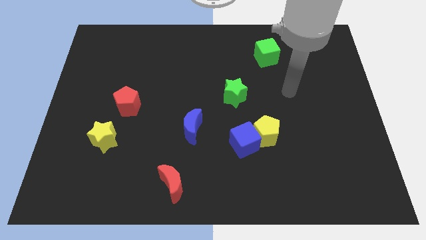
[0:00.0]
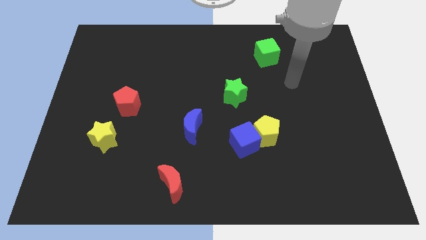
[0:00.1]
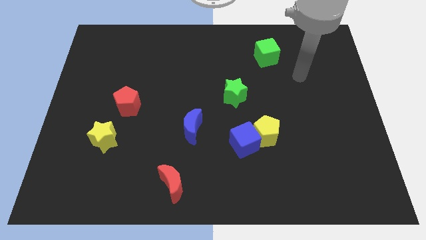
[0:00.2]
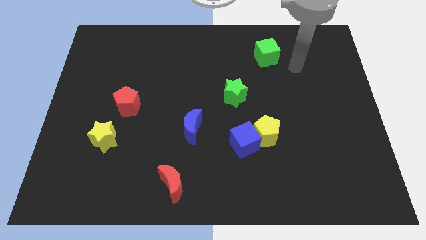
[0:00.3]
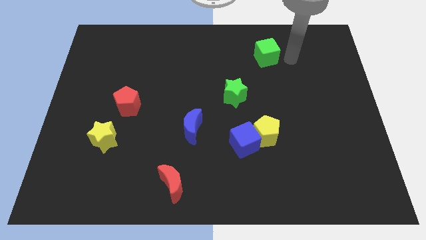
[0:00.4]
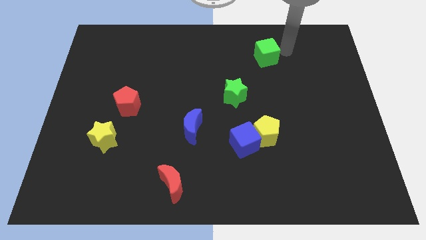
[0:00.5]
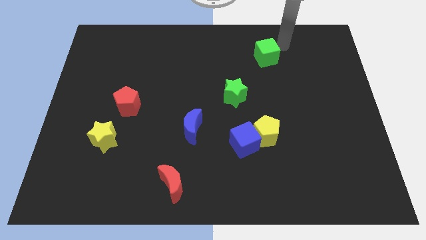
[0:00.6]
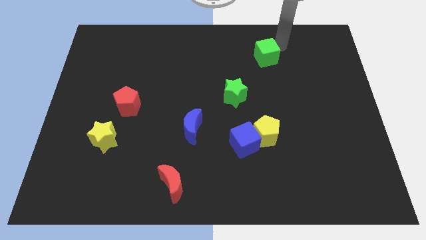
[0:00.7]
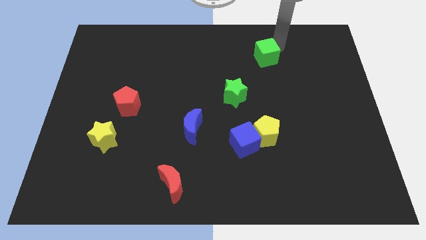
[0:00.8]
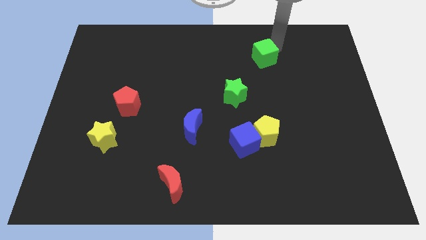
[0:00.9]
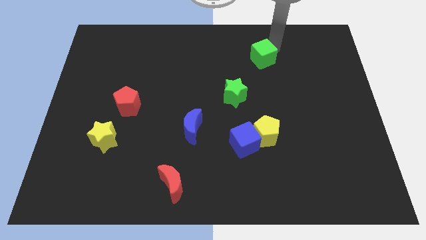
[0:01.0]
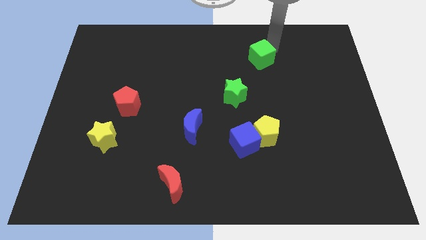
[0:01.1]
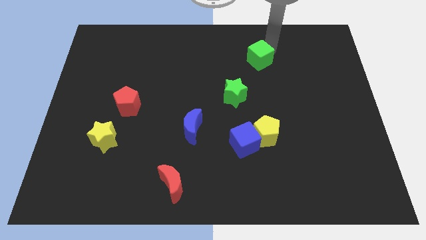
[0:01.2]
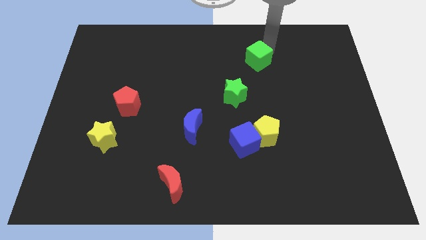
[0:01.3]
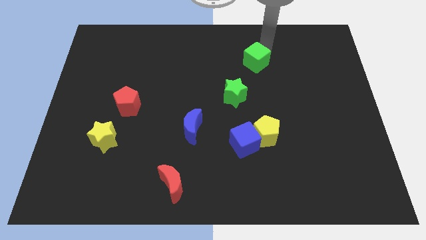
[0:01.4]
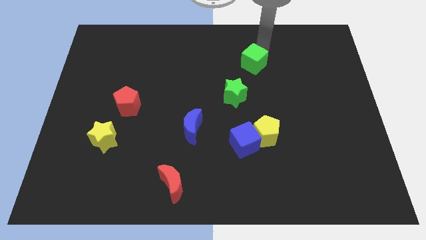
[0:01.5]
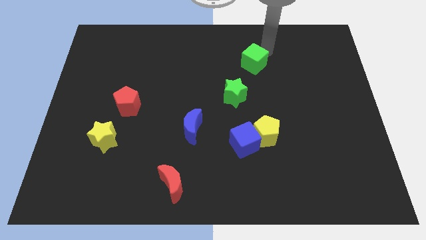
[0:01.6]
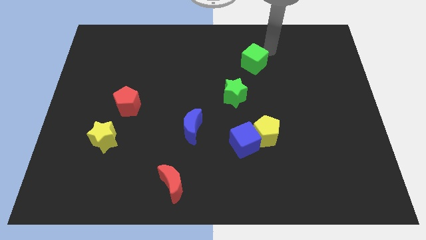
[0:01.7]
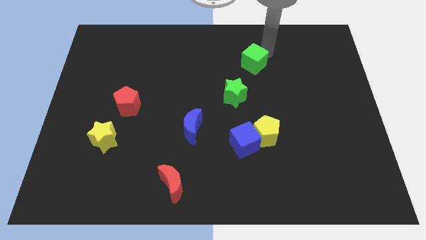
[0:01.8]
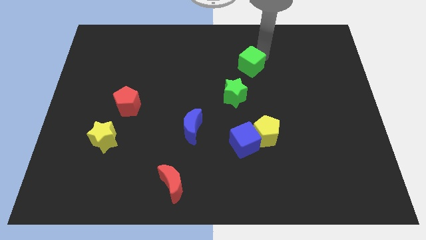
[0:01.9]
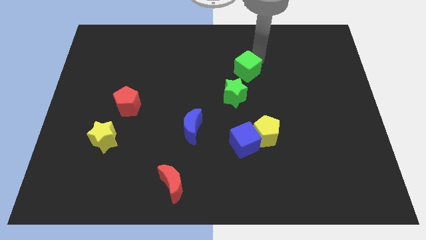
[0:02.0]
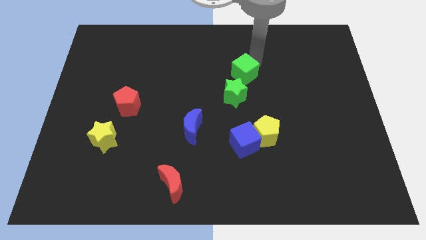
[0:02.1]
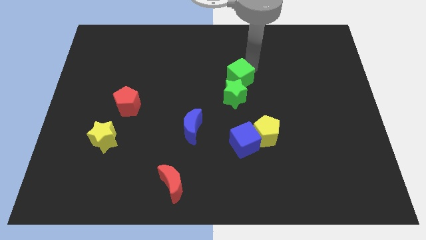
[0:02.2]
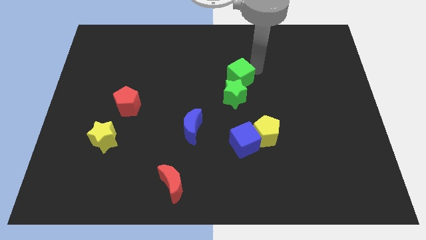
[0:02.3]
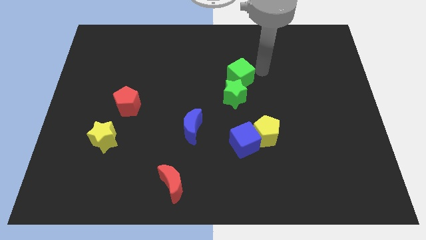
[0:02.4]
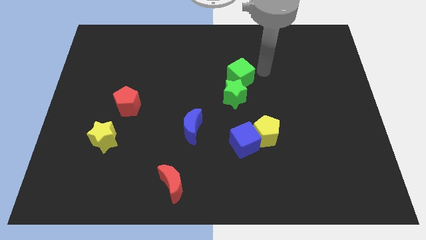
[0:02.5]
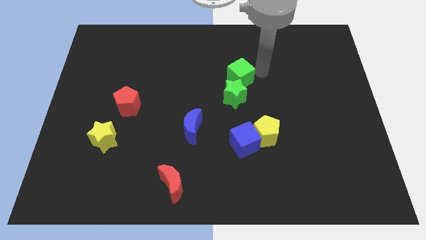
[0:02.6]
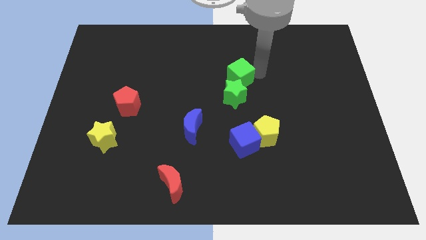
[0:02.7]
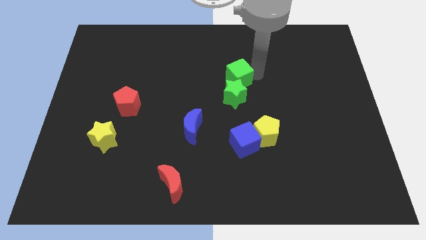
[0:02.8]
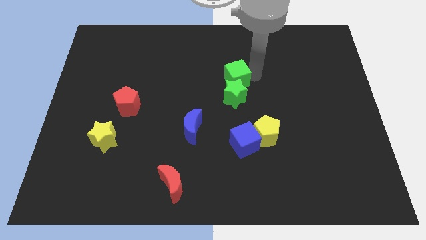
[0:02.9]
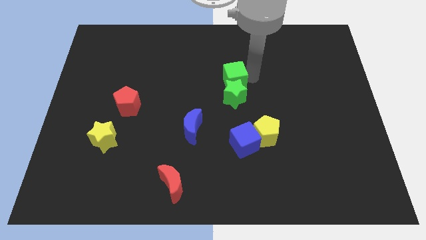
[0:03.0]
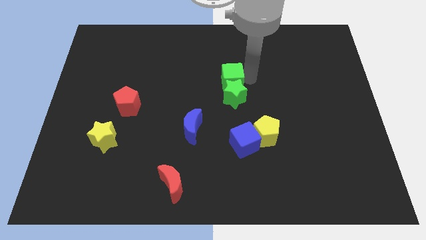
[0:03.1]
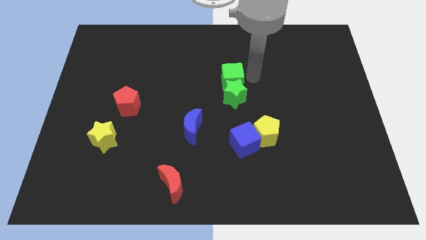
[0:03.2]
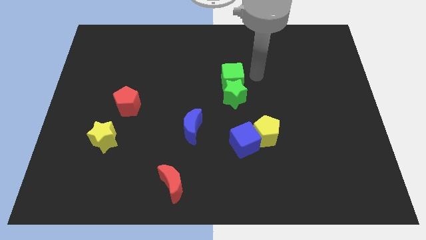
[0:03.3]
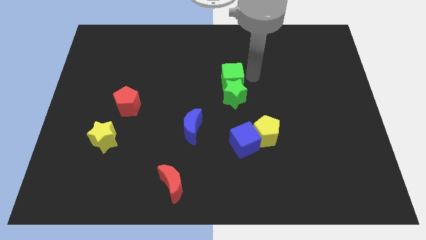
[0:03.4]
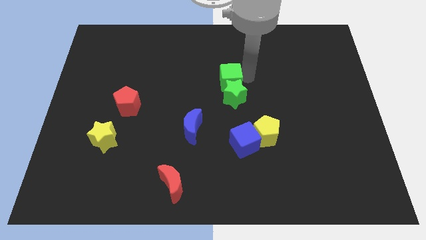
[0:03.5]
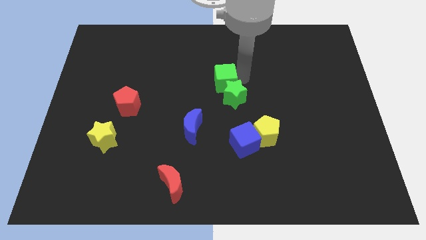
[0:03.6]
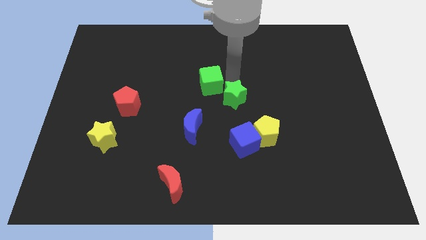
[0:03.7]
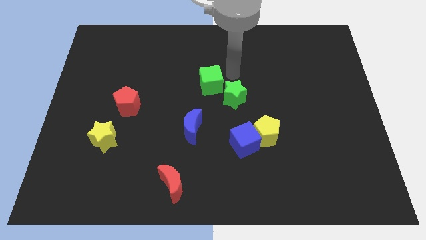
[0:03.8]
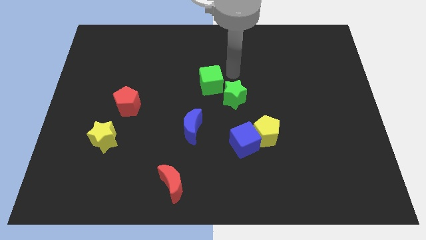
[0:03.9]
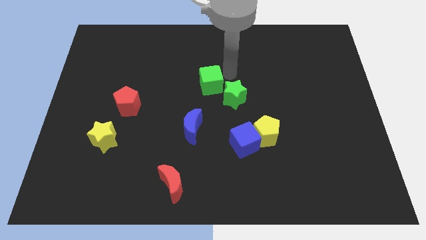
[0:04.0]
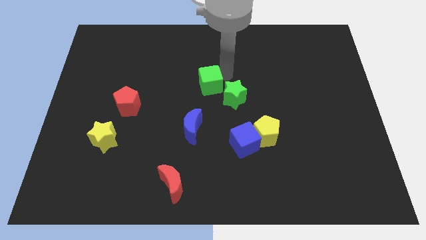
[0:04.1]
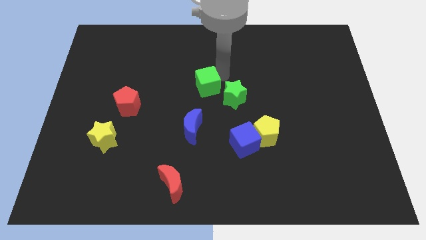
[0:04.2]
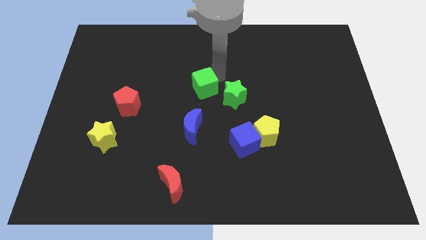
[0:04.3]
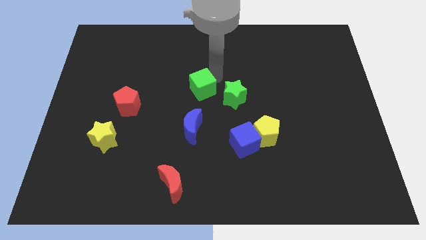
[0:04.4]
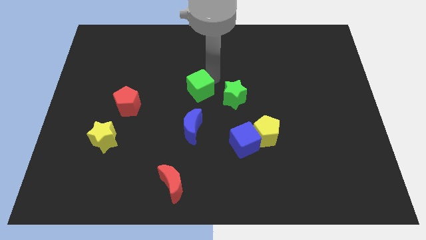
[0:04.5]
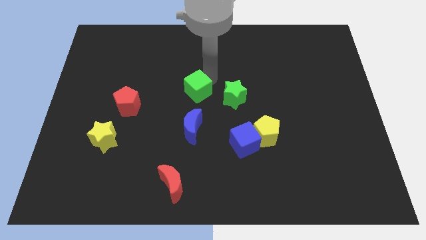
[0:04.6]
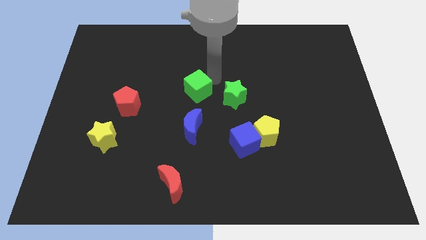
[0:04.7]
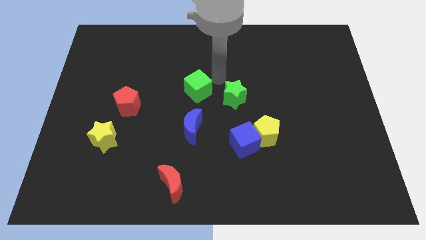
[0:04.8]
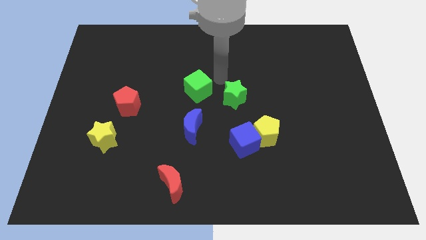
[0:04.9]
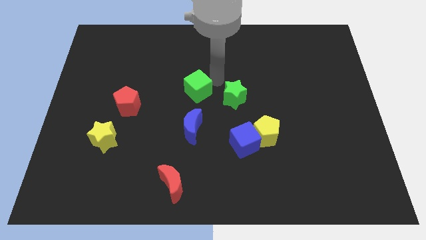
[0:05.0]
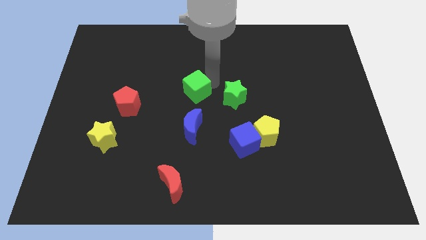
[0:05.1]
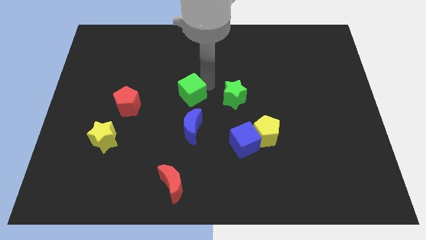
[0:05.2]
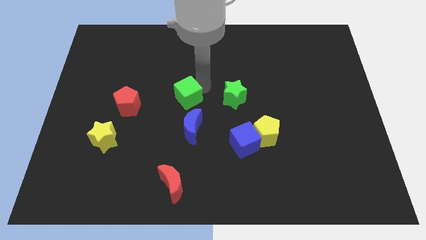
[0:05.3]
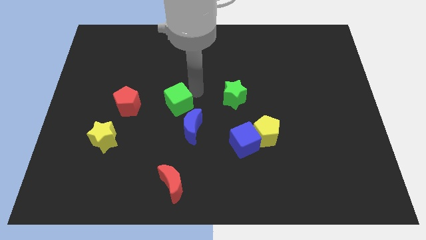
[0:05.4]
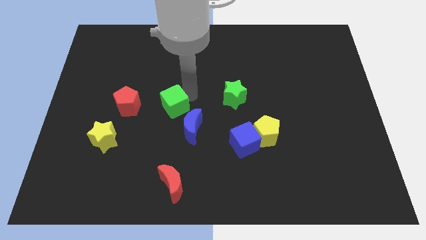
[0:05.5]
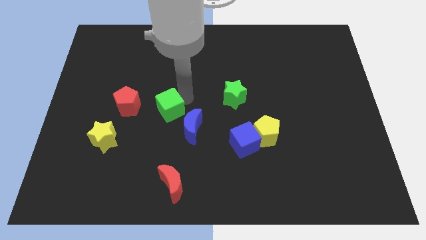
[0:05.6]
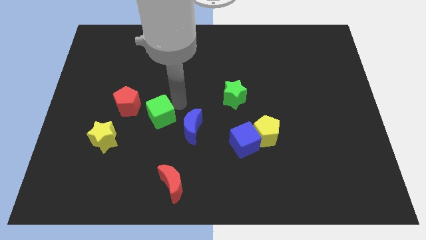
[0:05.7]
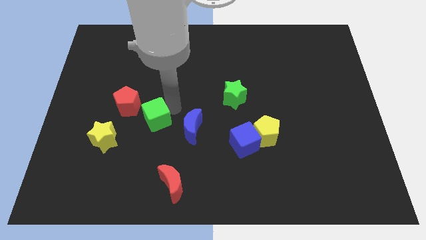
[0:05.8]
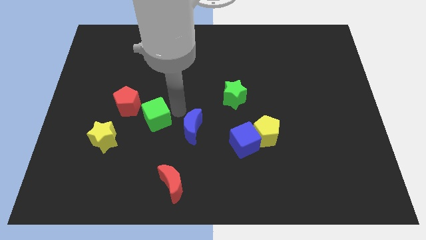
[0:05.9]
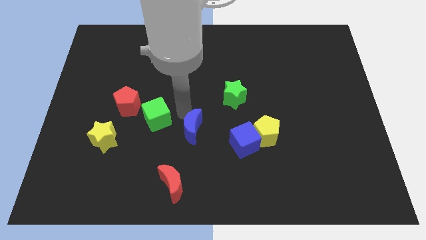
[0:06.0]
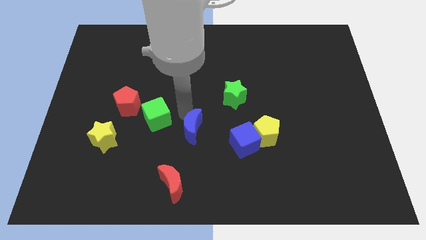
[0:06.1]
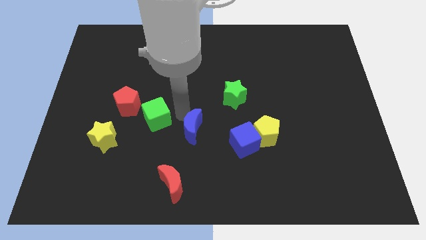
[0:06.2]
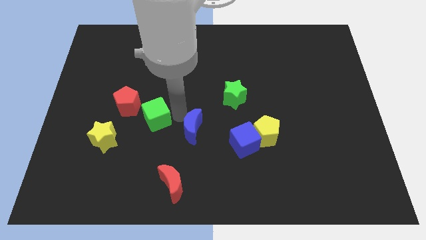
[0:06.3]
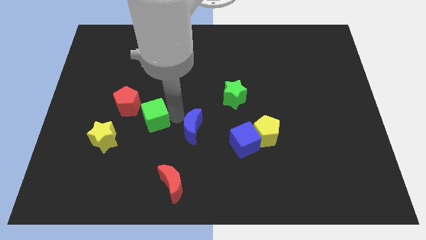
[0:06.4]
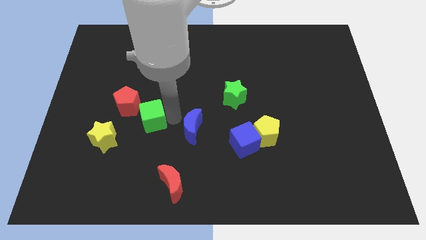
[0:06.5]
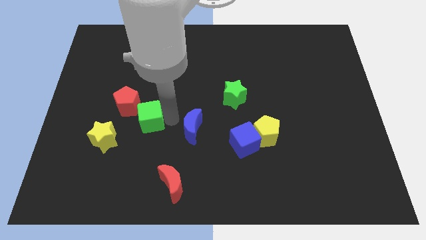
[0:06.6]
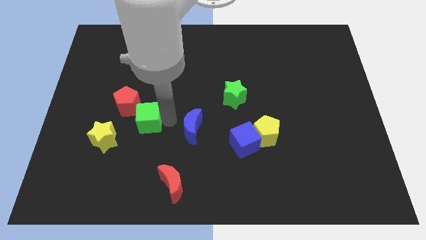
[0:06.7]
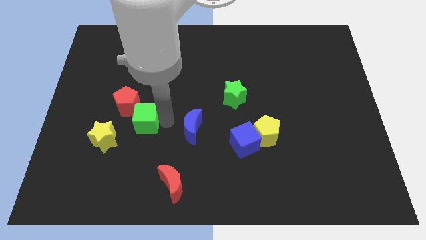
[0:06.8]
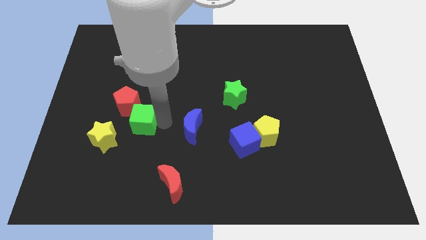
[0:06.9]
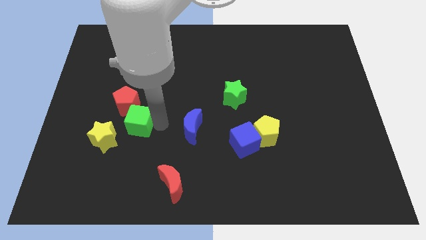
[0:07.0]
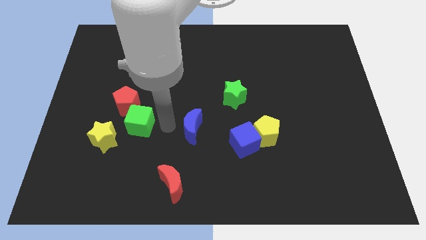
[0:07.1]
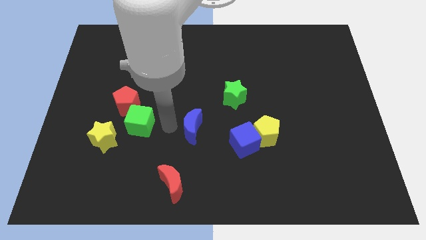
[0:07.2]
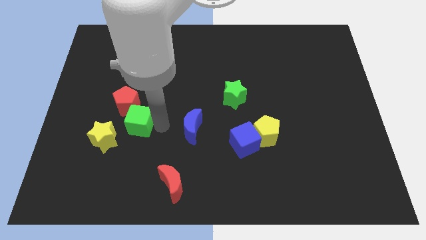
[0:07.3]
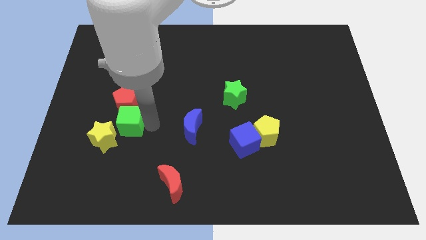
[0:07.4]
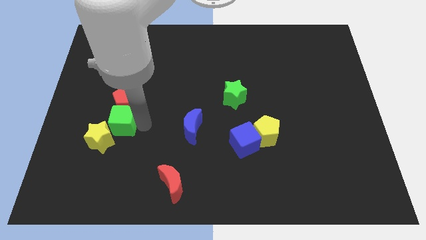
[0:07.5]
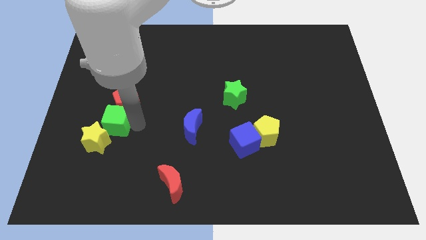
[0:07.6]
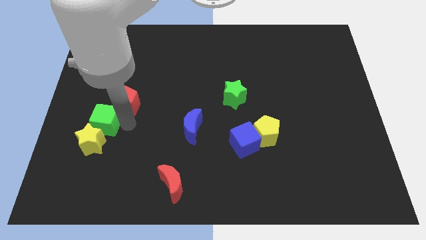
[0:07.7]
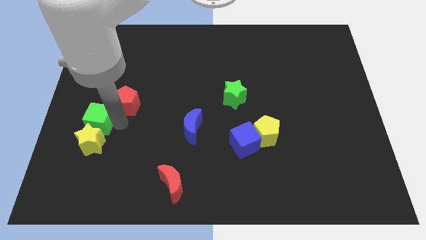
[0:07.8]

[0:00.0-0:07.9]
move the green cube to the top left side of the yellow star

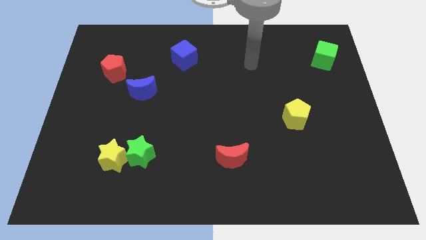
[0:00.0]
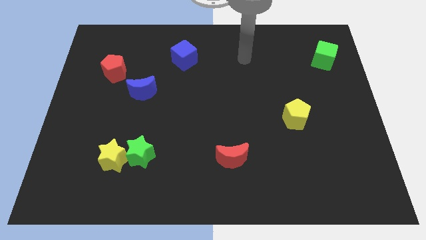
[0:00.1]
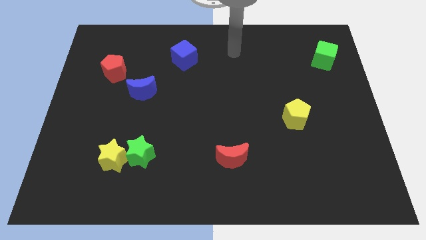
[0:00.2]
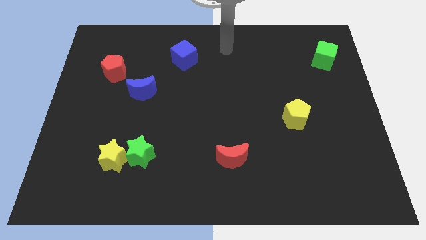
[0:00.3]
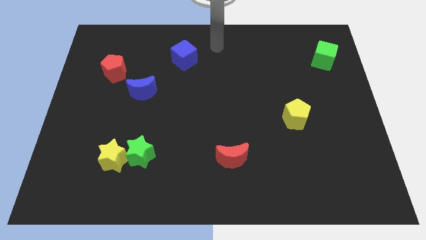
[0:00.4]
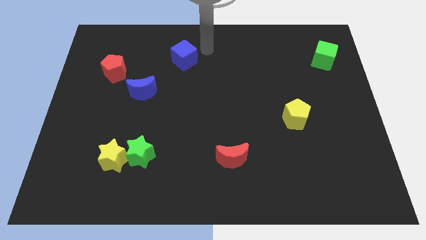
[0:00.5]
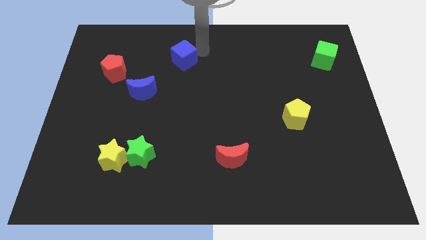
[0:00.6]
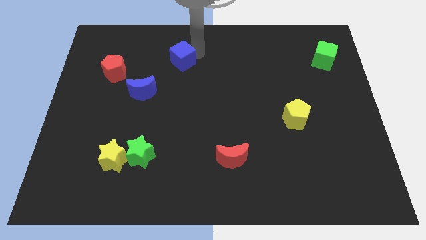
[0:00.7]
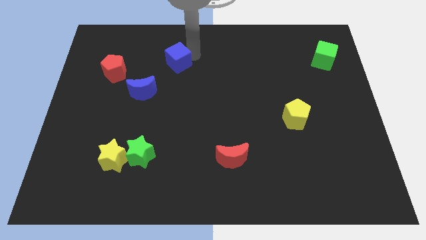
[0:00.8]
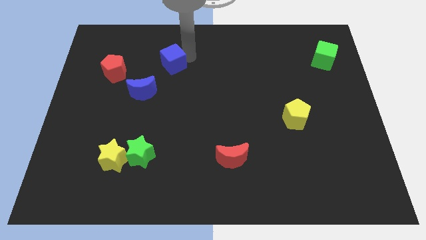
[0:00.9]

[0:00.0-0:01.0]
slide the blue cube just right of the red pentagon
